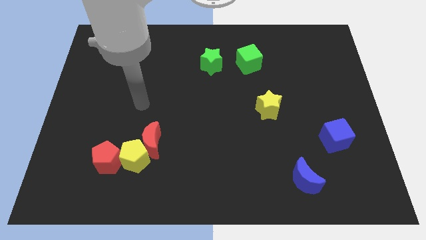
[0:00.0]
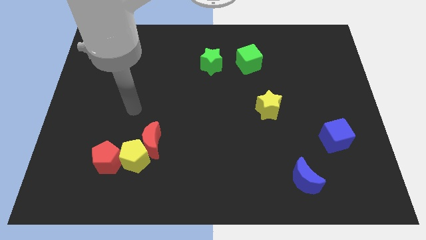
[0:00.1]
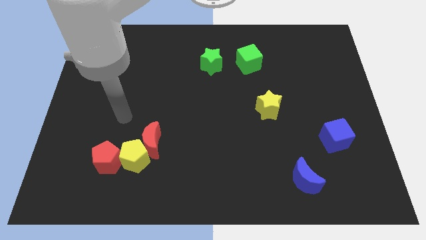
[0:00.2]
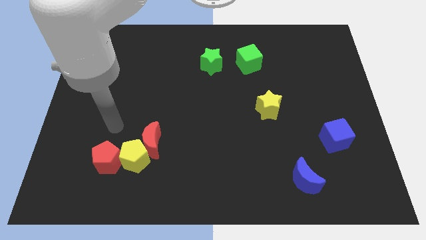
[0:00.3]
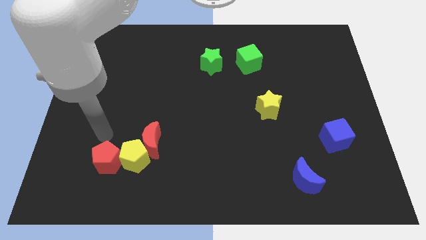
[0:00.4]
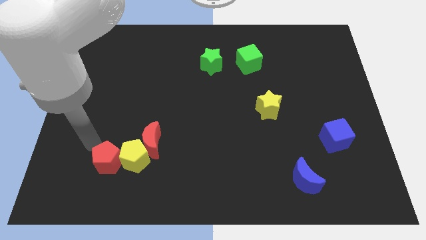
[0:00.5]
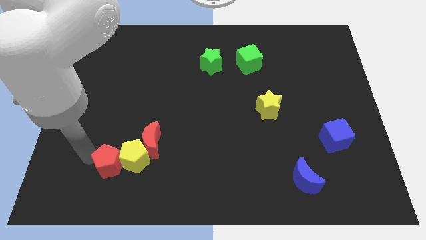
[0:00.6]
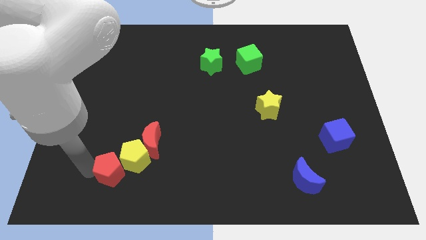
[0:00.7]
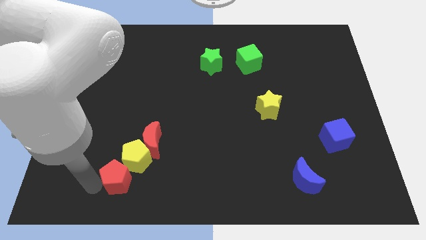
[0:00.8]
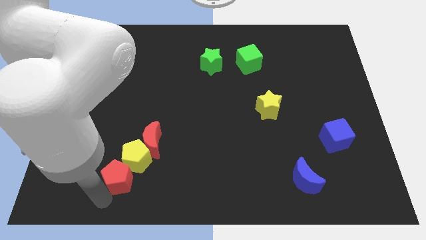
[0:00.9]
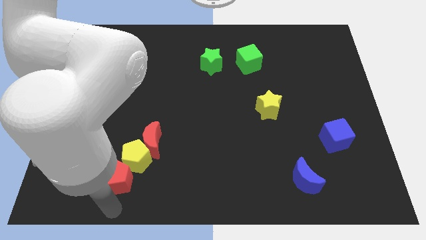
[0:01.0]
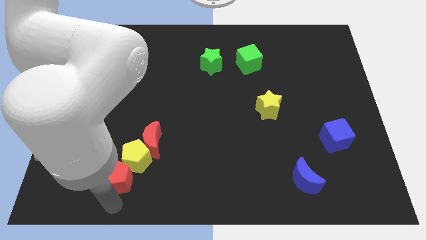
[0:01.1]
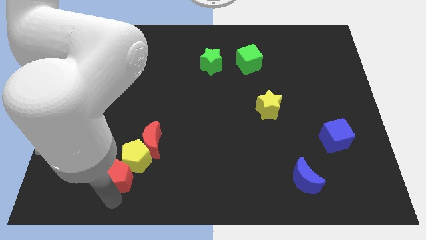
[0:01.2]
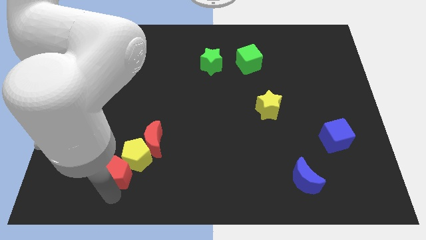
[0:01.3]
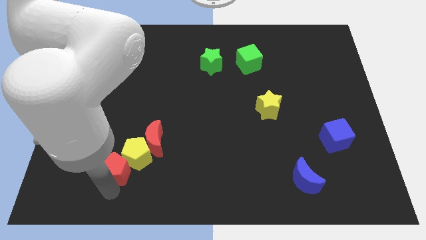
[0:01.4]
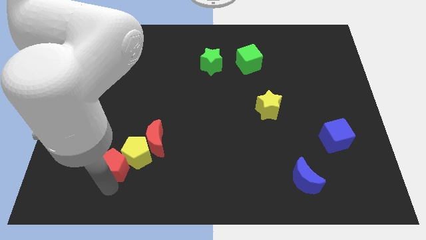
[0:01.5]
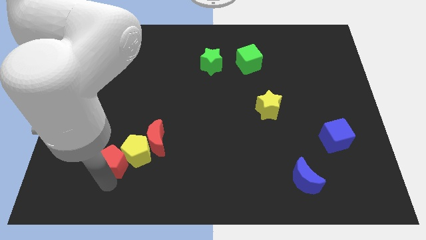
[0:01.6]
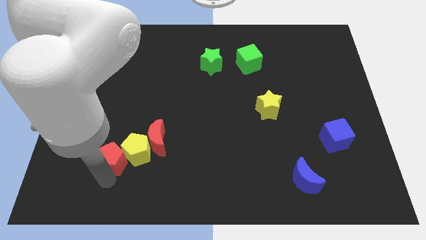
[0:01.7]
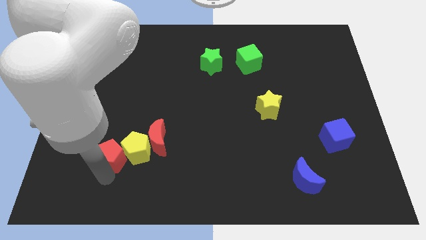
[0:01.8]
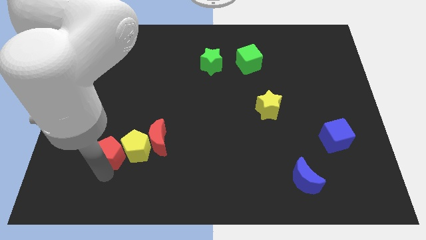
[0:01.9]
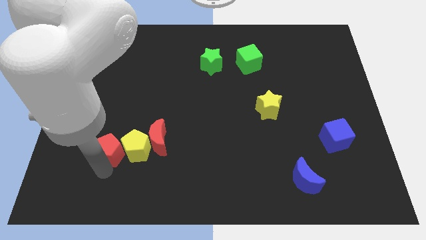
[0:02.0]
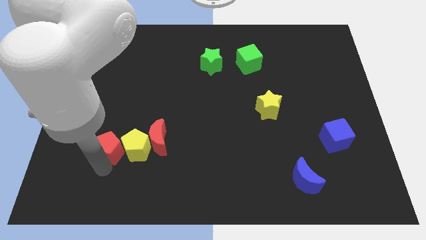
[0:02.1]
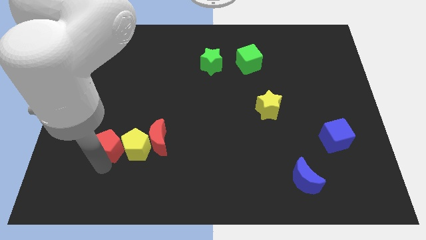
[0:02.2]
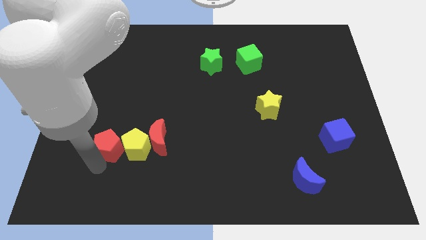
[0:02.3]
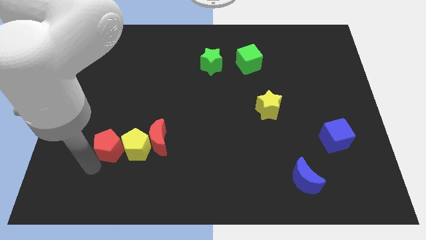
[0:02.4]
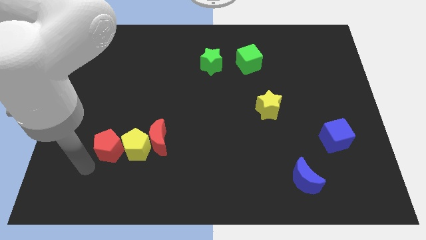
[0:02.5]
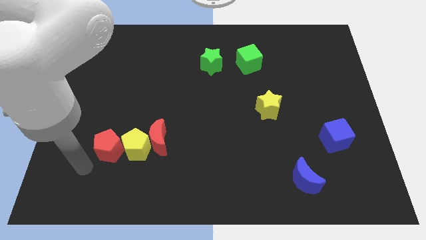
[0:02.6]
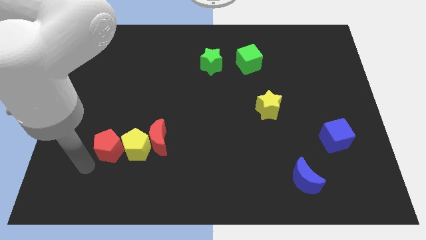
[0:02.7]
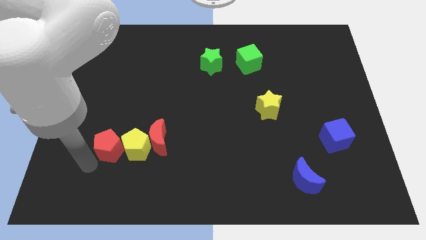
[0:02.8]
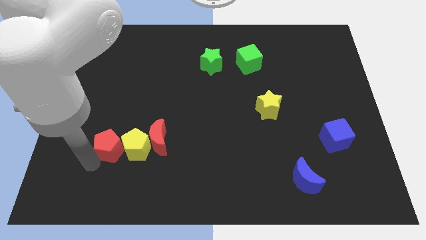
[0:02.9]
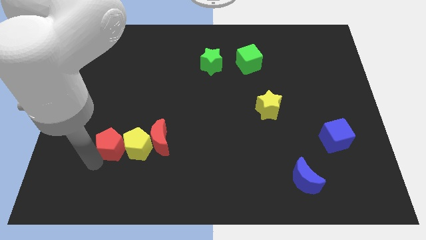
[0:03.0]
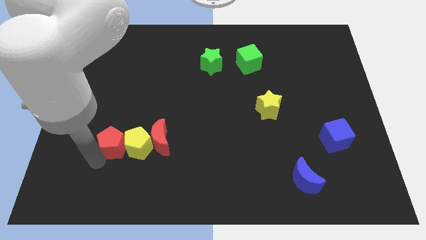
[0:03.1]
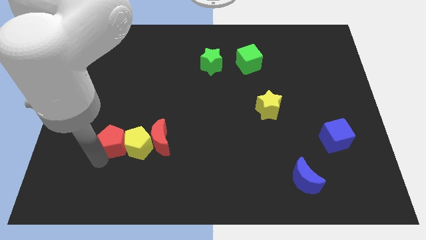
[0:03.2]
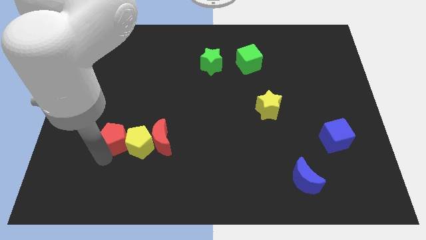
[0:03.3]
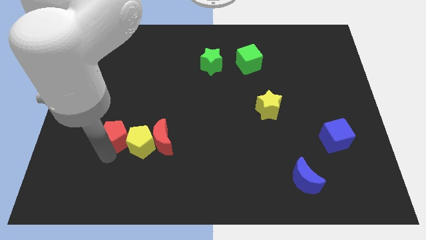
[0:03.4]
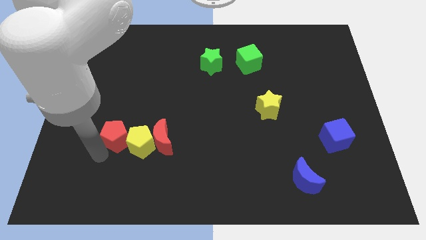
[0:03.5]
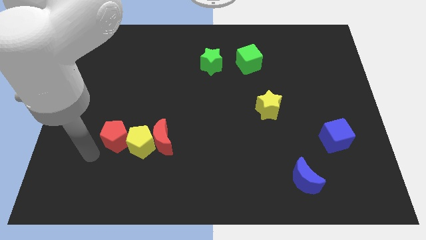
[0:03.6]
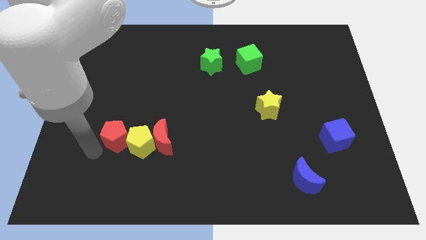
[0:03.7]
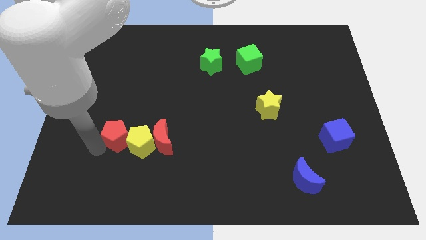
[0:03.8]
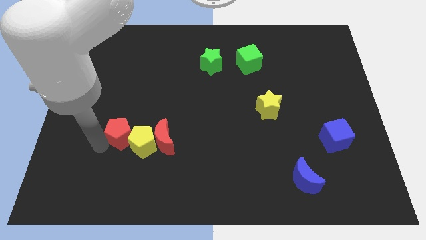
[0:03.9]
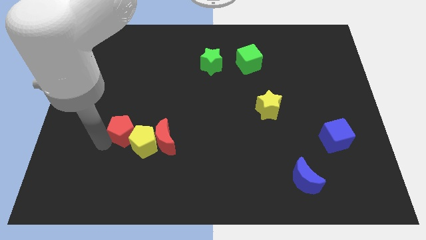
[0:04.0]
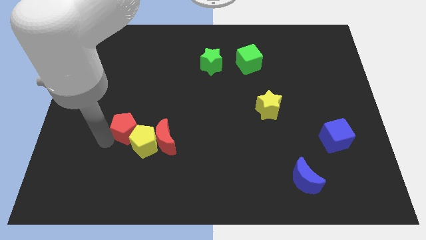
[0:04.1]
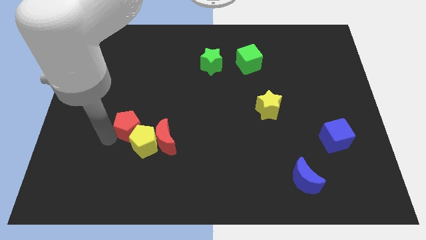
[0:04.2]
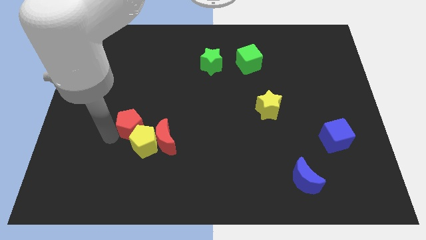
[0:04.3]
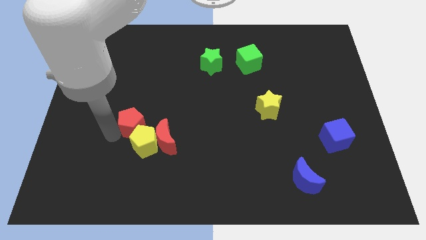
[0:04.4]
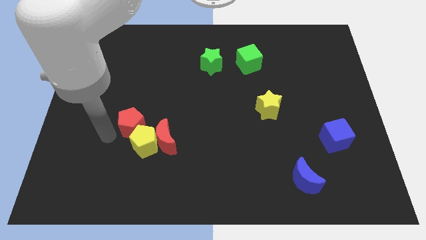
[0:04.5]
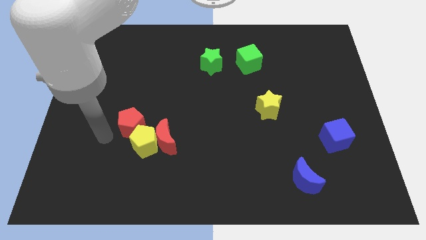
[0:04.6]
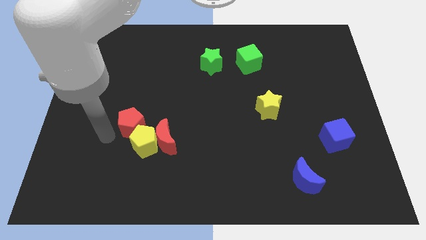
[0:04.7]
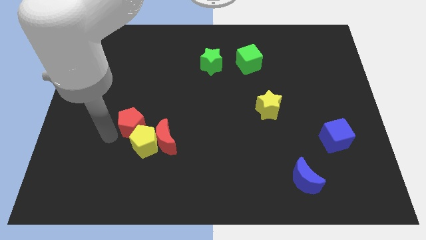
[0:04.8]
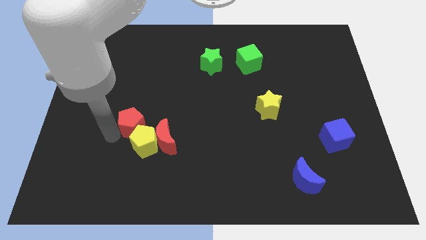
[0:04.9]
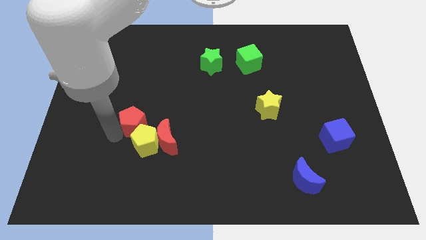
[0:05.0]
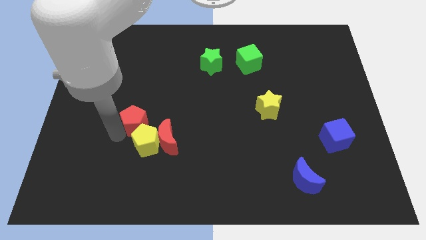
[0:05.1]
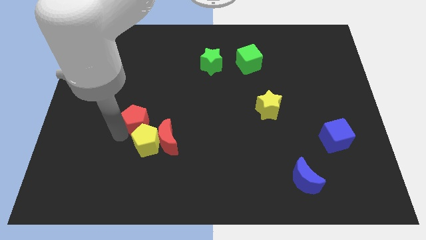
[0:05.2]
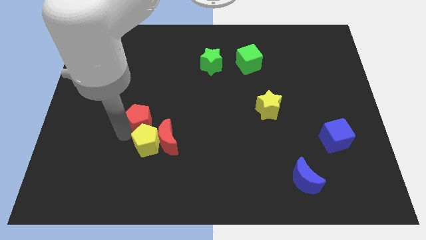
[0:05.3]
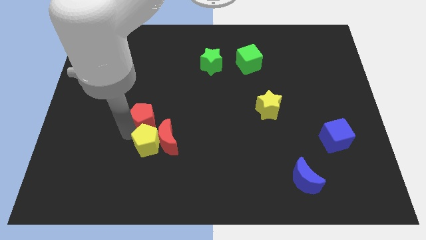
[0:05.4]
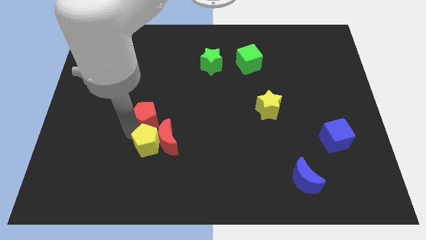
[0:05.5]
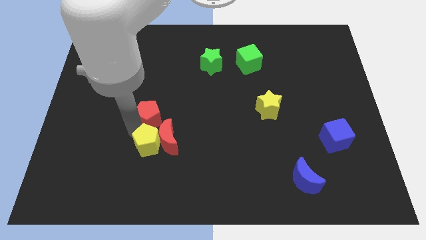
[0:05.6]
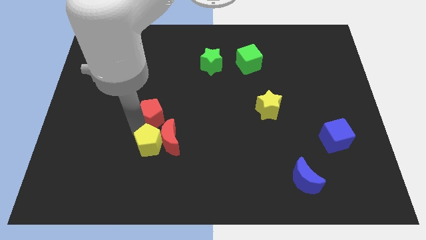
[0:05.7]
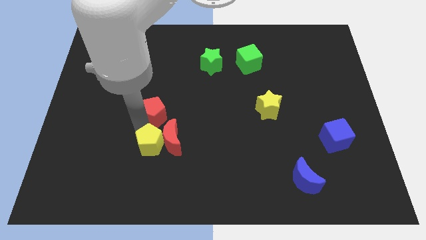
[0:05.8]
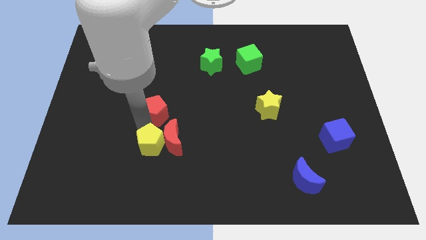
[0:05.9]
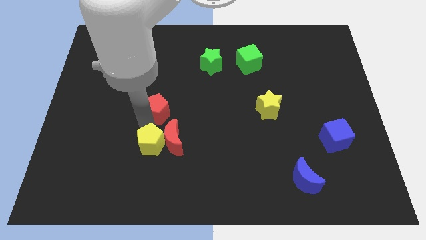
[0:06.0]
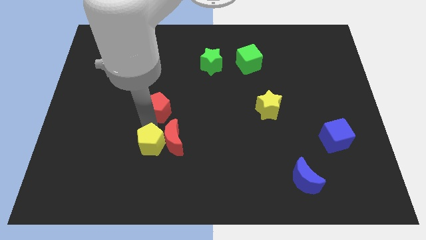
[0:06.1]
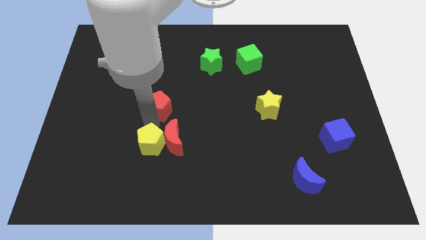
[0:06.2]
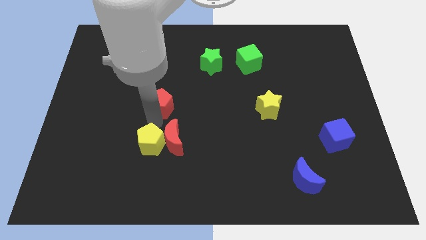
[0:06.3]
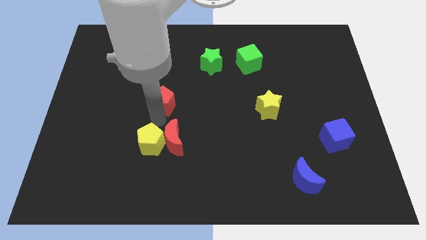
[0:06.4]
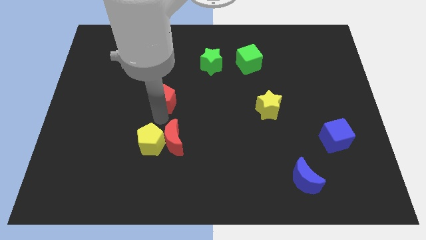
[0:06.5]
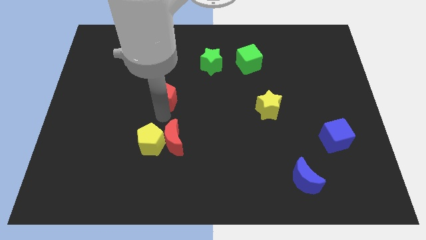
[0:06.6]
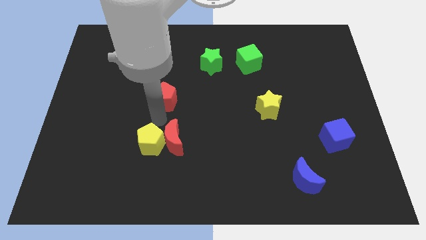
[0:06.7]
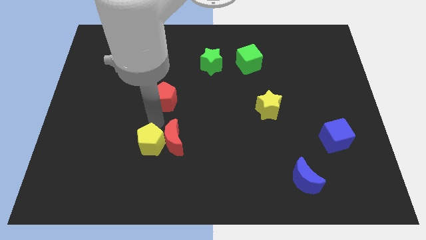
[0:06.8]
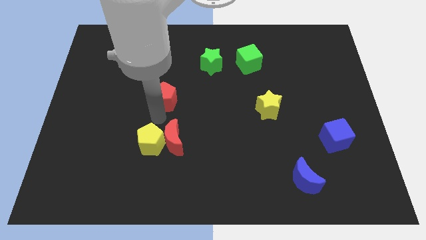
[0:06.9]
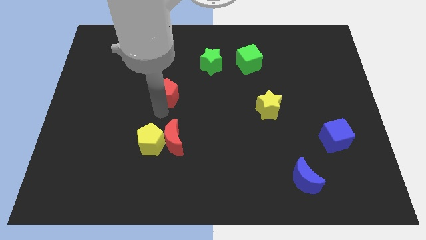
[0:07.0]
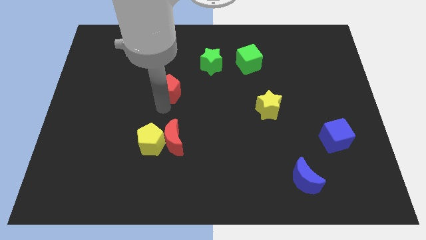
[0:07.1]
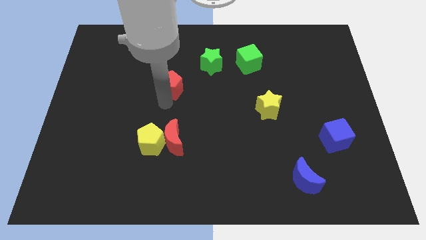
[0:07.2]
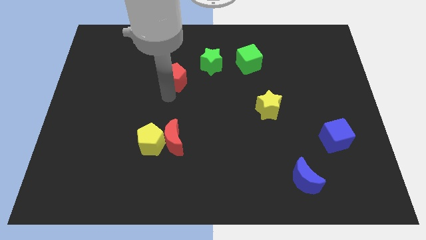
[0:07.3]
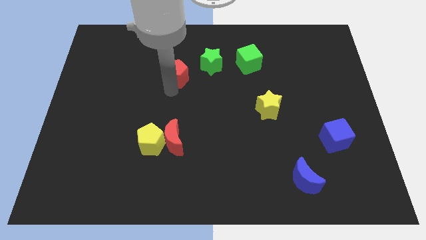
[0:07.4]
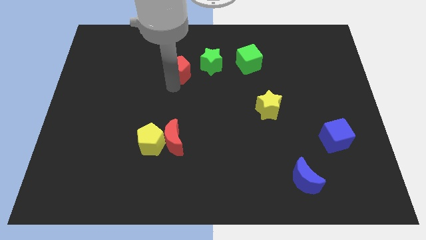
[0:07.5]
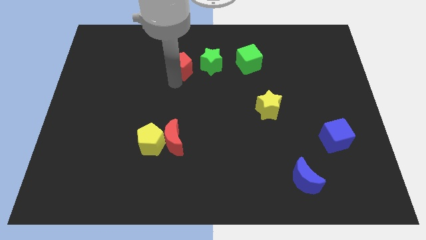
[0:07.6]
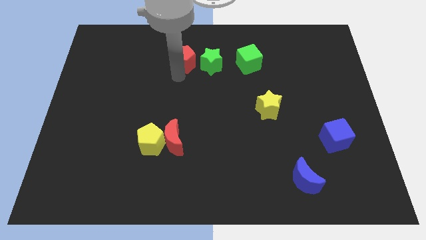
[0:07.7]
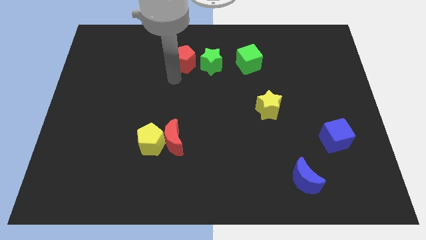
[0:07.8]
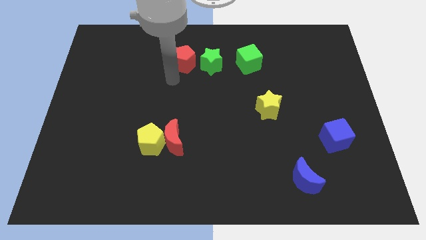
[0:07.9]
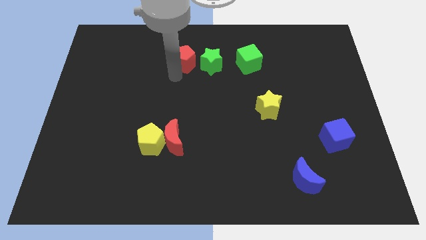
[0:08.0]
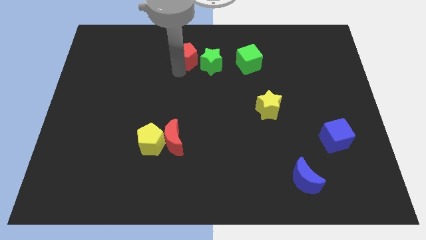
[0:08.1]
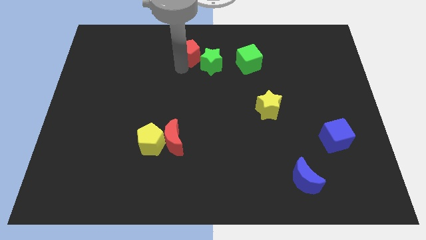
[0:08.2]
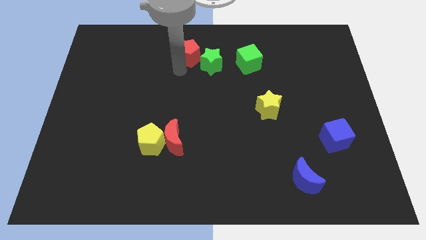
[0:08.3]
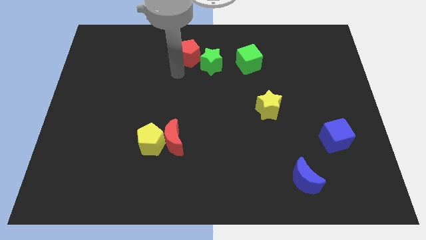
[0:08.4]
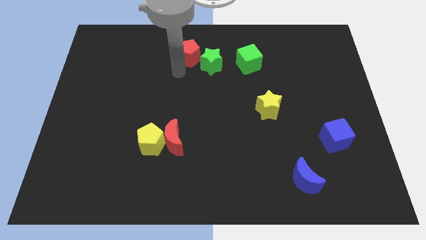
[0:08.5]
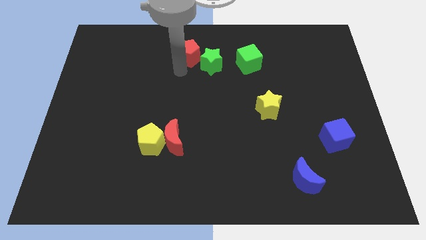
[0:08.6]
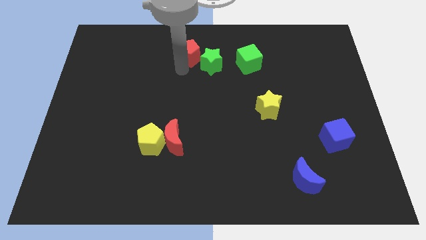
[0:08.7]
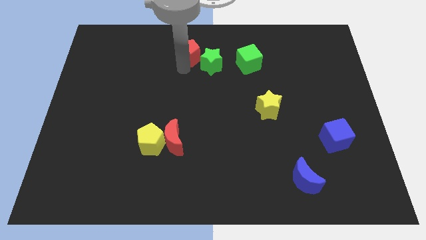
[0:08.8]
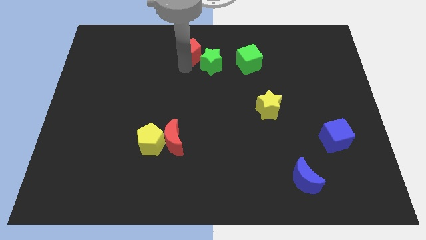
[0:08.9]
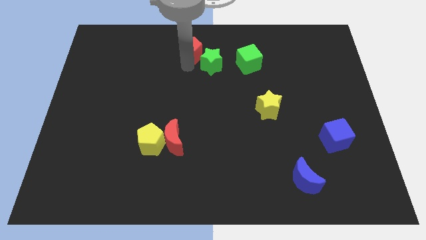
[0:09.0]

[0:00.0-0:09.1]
move the red pentagon to the towards your base
